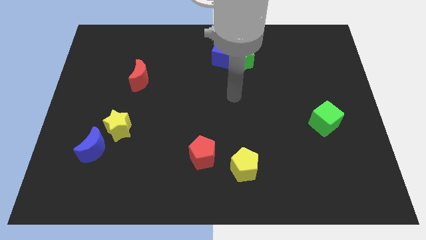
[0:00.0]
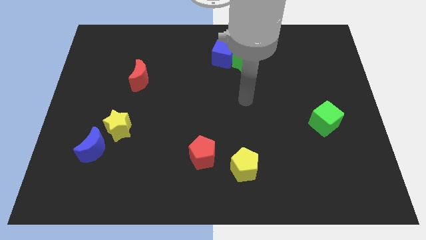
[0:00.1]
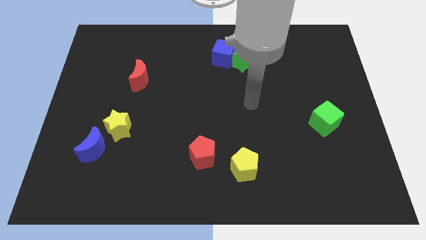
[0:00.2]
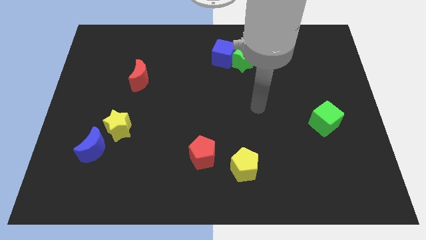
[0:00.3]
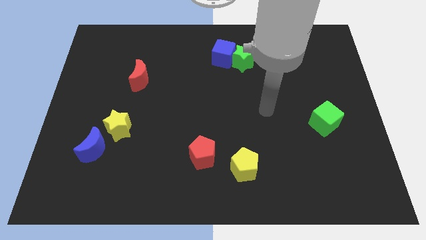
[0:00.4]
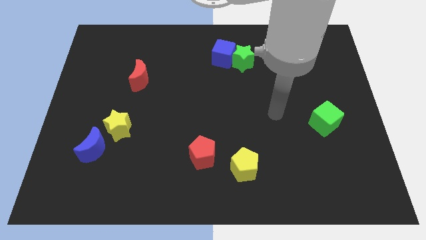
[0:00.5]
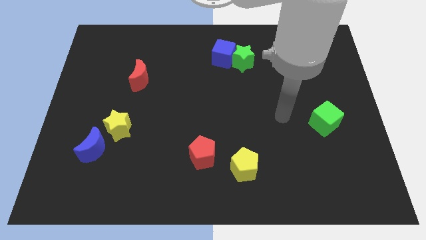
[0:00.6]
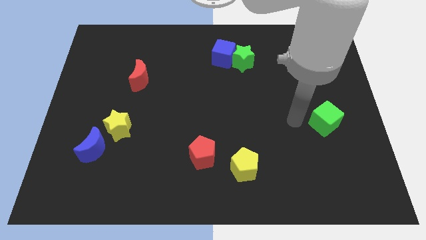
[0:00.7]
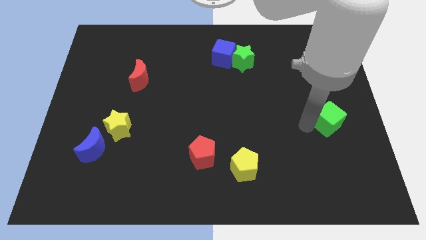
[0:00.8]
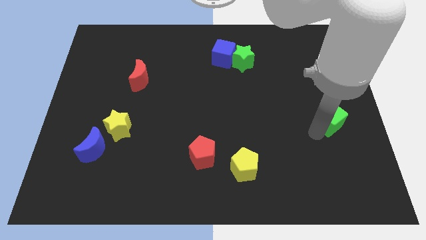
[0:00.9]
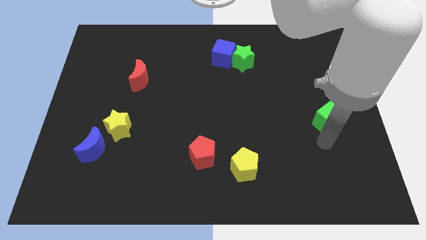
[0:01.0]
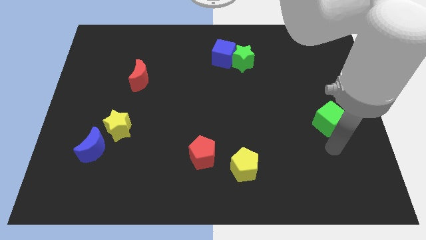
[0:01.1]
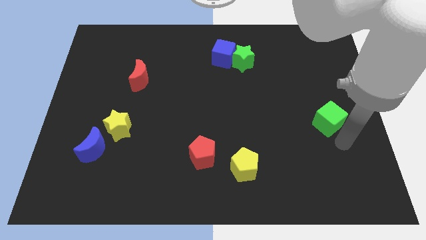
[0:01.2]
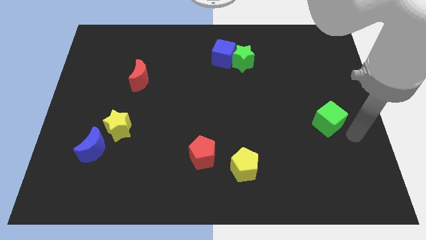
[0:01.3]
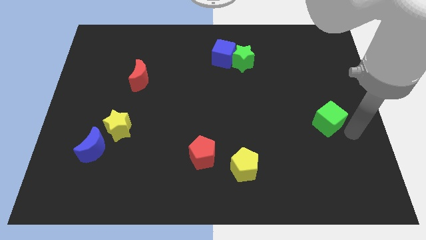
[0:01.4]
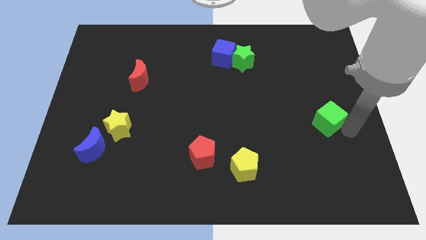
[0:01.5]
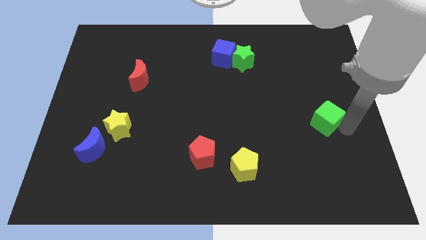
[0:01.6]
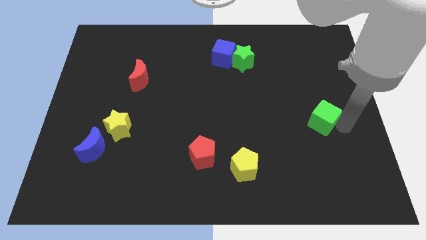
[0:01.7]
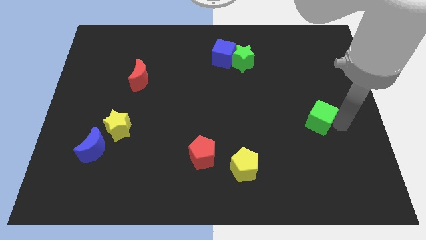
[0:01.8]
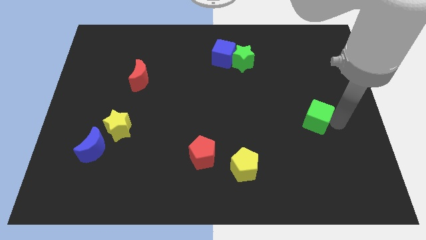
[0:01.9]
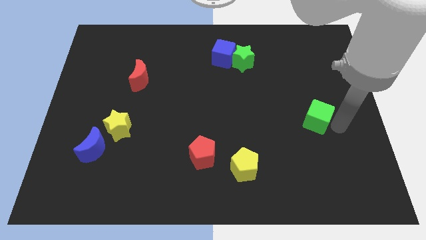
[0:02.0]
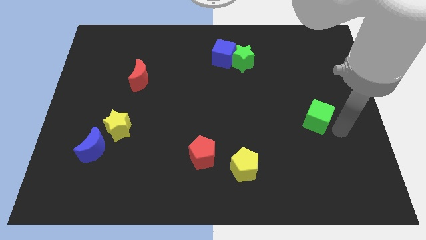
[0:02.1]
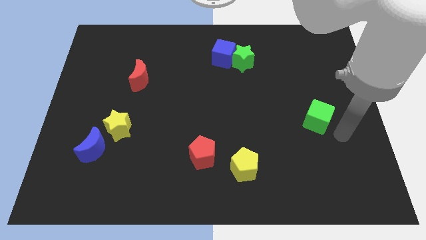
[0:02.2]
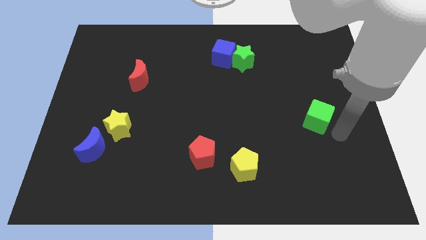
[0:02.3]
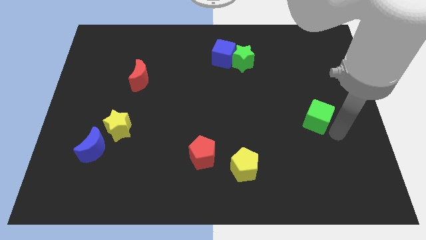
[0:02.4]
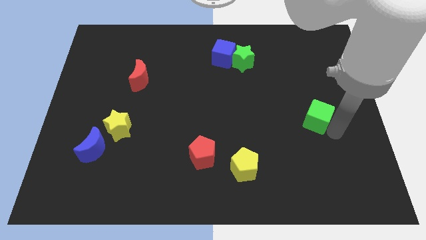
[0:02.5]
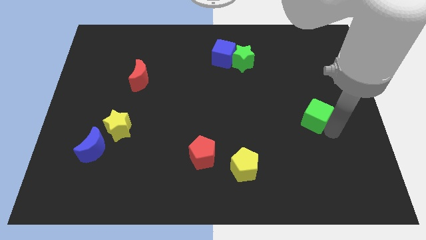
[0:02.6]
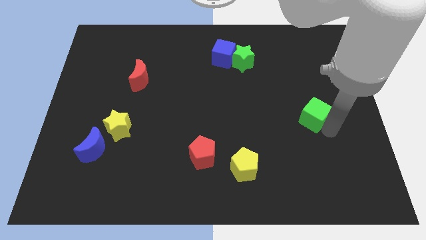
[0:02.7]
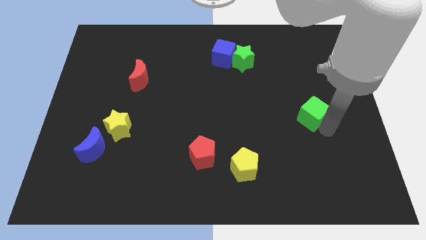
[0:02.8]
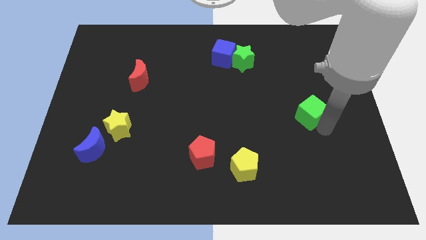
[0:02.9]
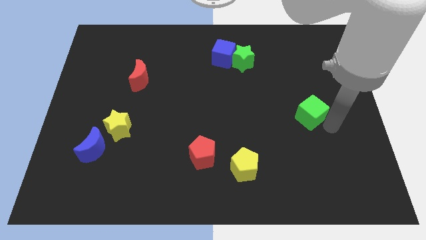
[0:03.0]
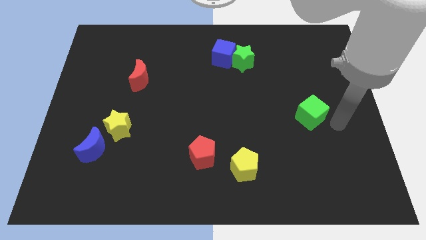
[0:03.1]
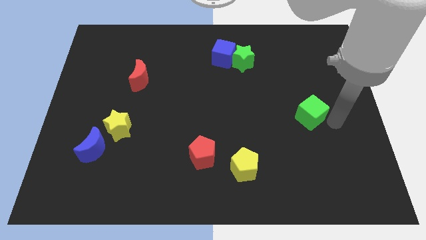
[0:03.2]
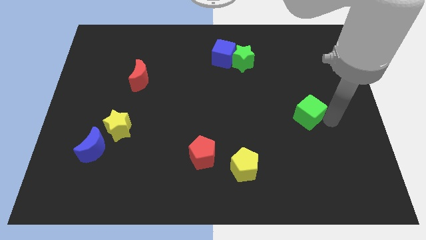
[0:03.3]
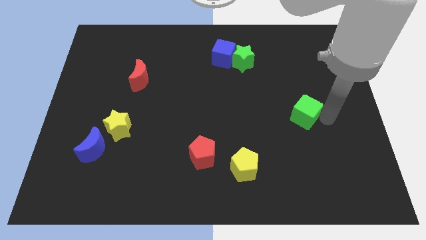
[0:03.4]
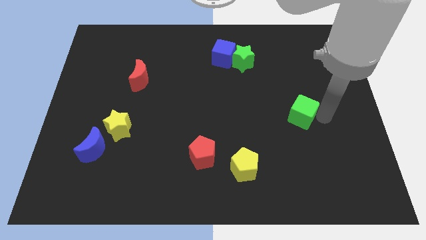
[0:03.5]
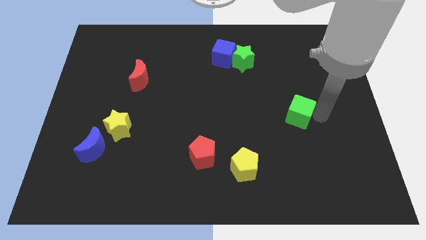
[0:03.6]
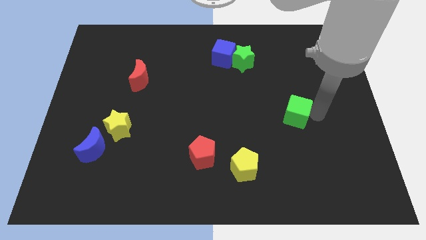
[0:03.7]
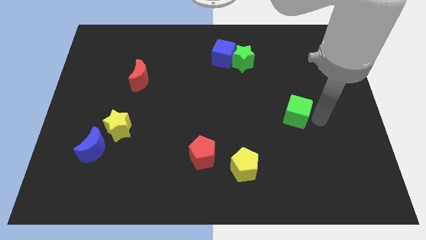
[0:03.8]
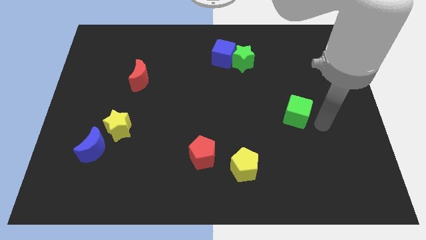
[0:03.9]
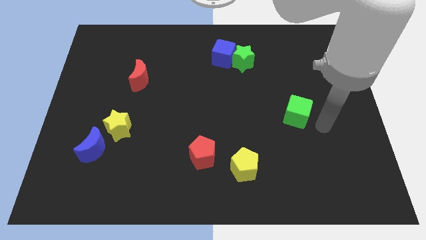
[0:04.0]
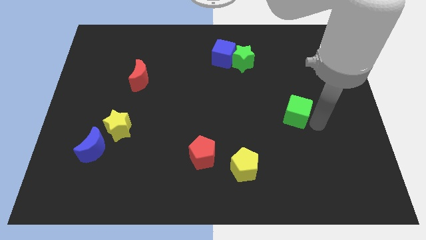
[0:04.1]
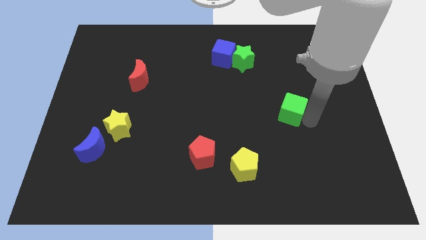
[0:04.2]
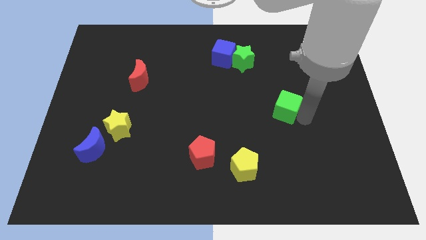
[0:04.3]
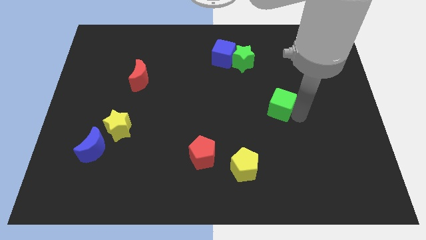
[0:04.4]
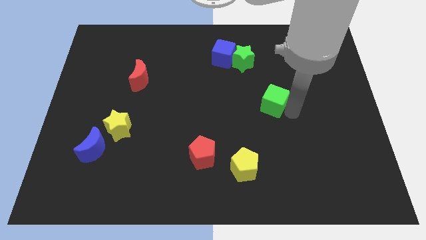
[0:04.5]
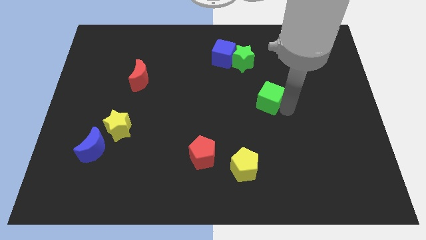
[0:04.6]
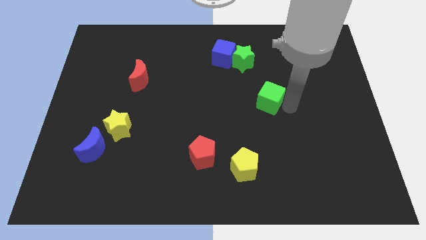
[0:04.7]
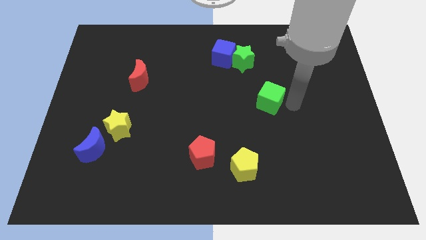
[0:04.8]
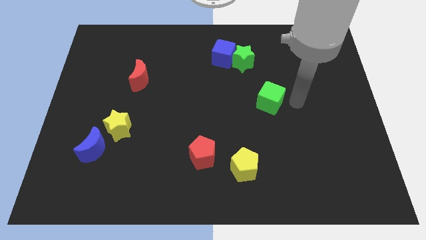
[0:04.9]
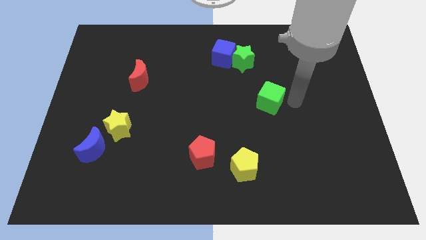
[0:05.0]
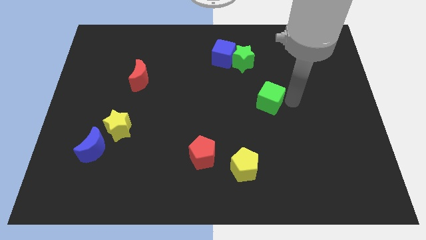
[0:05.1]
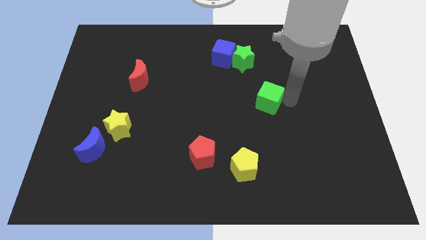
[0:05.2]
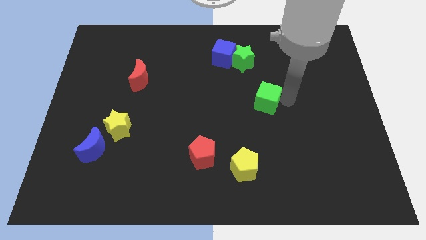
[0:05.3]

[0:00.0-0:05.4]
push the green cube to the center of the board
